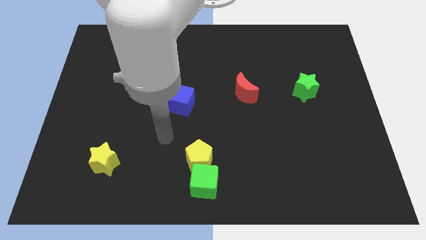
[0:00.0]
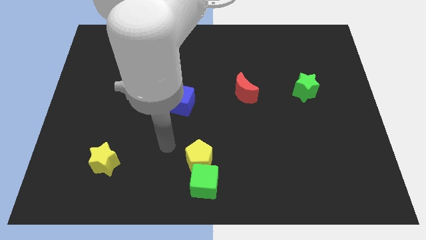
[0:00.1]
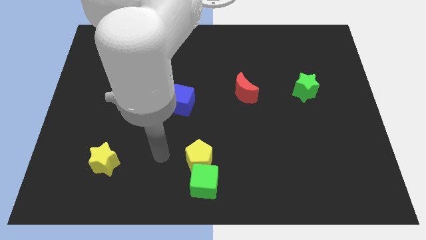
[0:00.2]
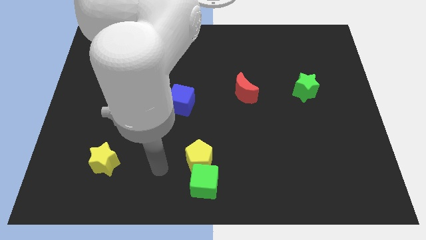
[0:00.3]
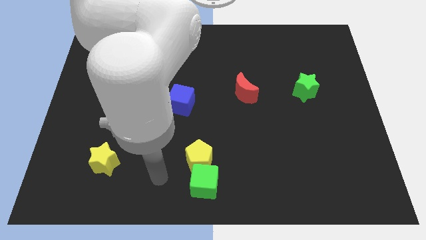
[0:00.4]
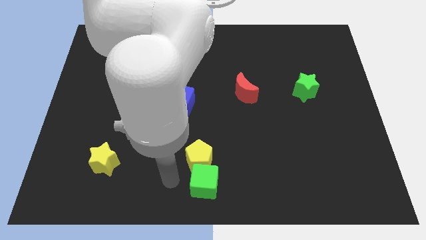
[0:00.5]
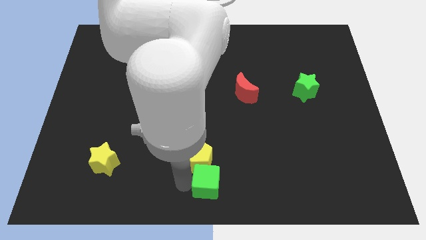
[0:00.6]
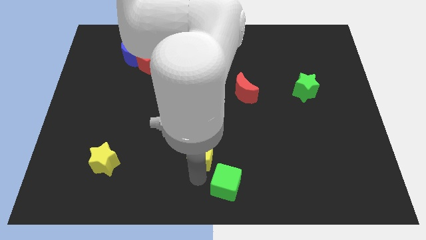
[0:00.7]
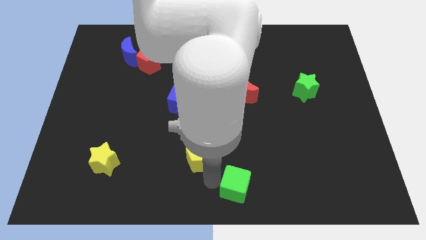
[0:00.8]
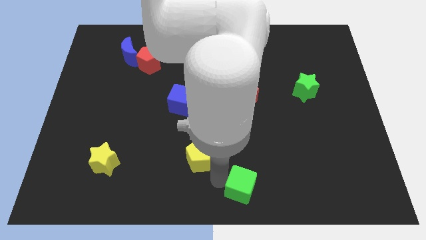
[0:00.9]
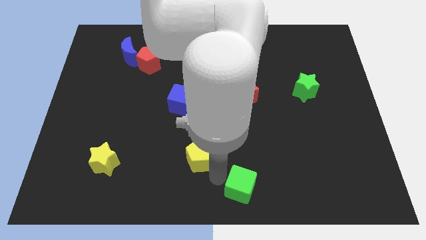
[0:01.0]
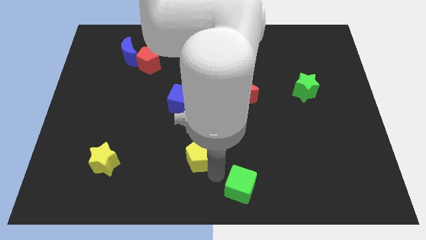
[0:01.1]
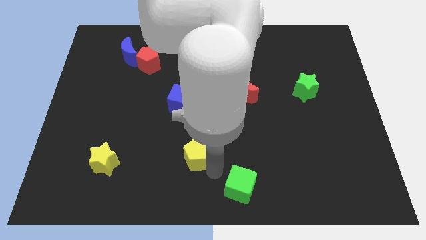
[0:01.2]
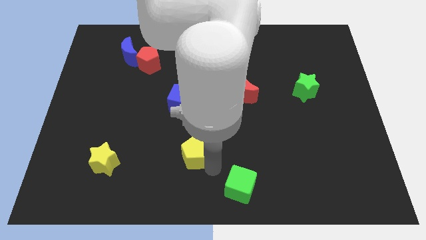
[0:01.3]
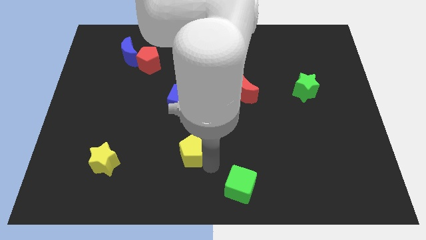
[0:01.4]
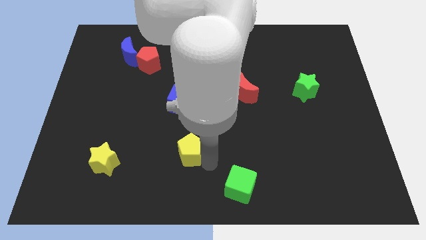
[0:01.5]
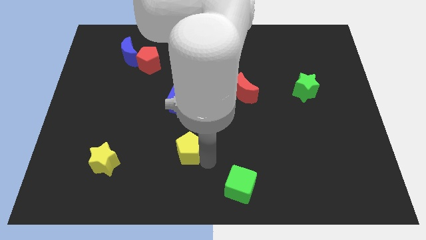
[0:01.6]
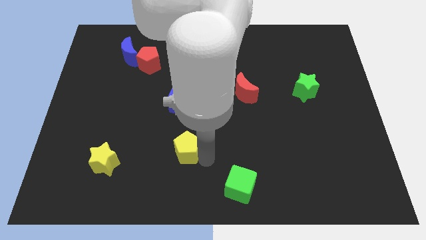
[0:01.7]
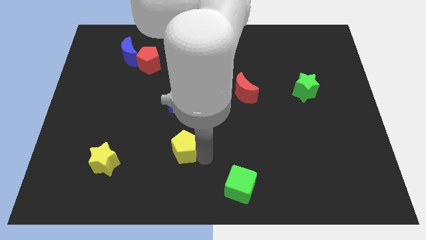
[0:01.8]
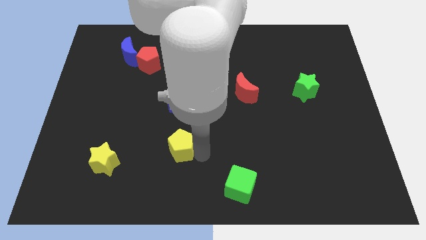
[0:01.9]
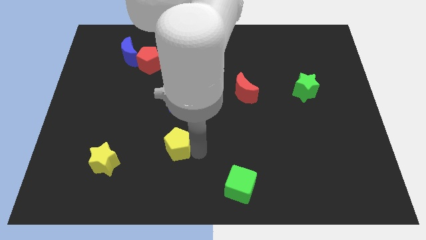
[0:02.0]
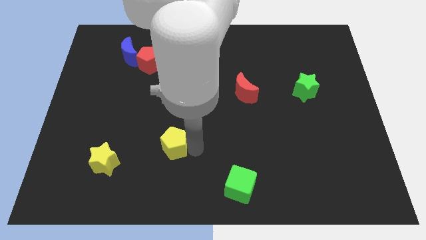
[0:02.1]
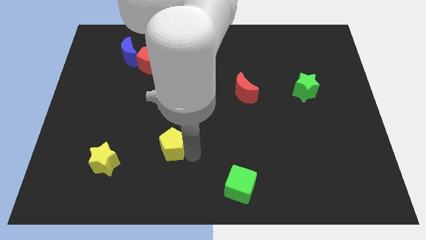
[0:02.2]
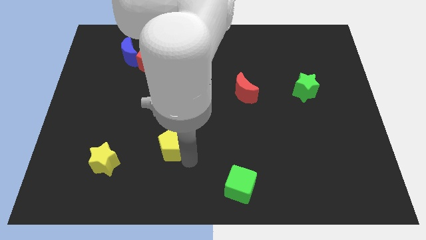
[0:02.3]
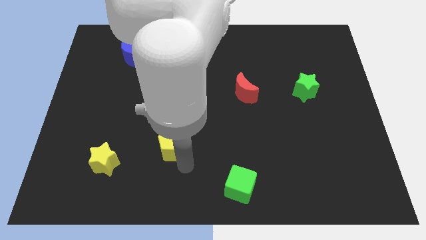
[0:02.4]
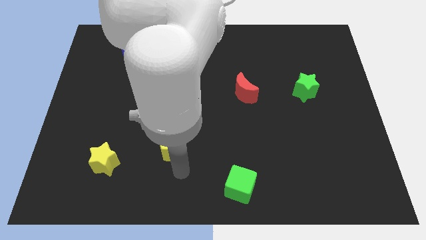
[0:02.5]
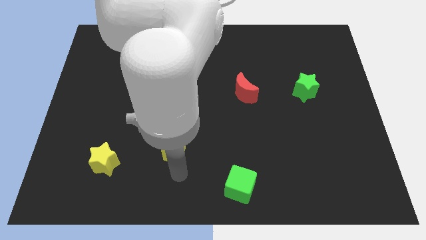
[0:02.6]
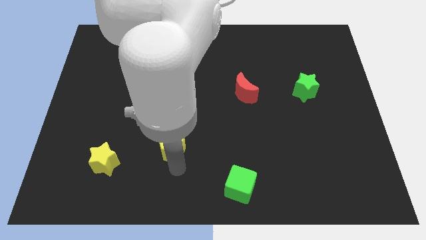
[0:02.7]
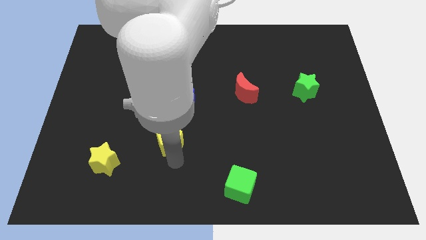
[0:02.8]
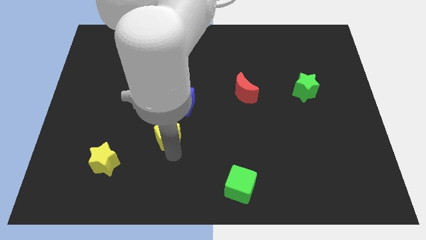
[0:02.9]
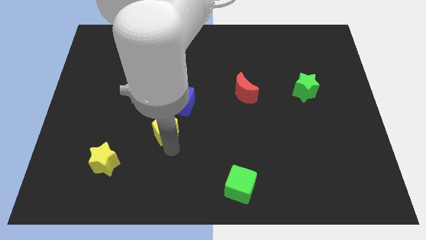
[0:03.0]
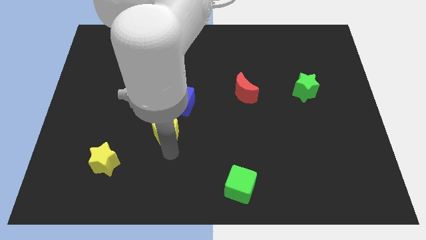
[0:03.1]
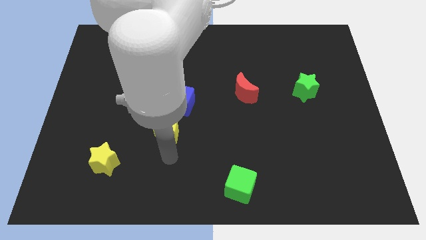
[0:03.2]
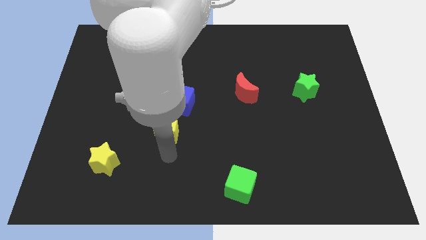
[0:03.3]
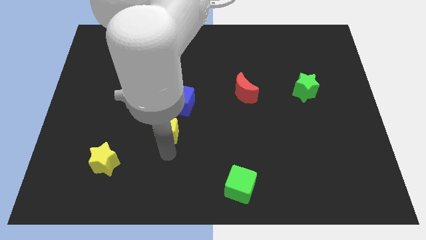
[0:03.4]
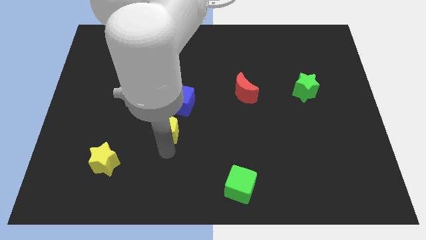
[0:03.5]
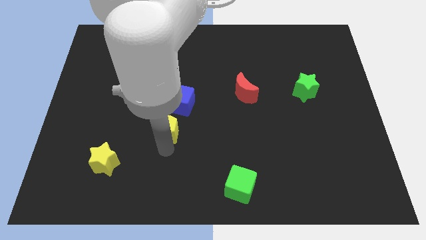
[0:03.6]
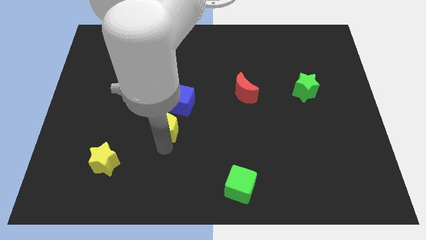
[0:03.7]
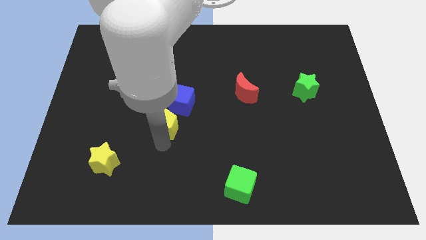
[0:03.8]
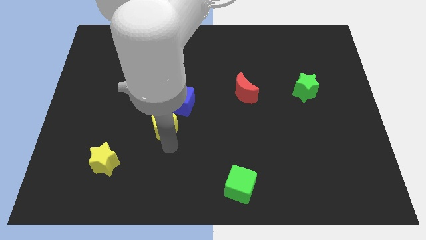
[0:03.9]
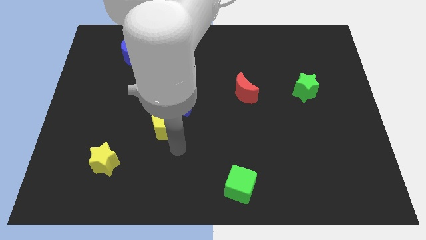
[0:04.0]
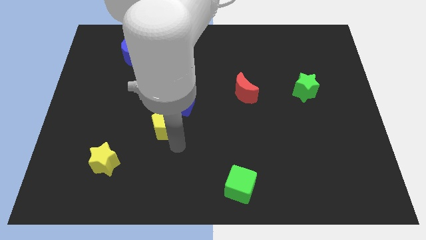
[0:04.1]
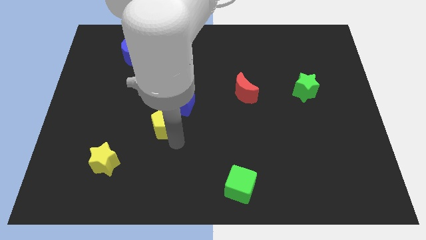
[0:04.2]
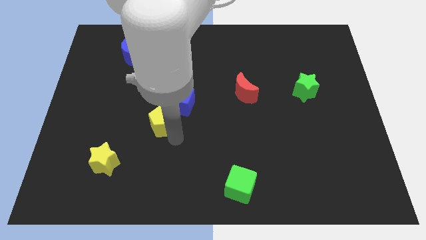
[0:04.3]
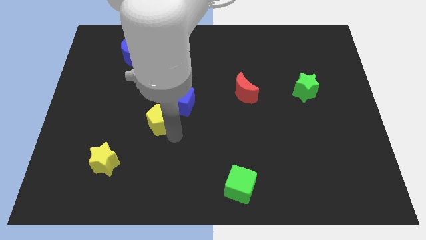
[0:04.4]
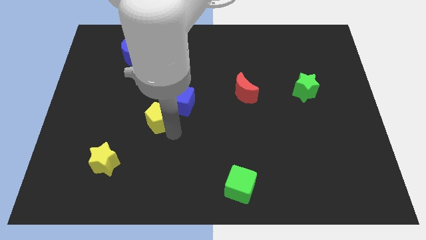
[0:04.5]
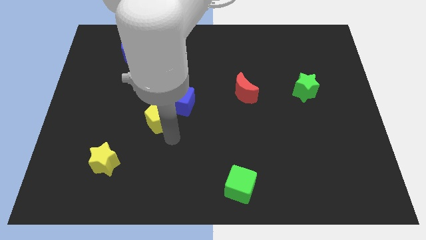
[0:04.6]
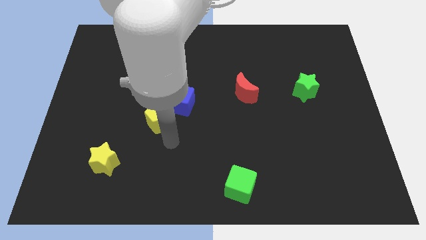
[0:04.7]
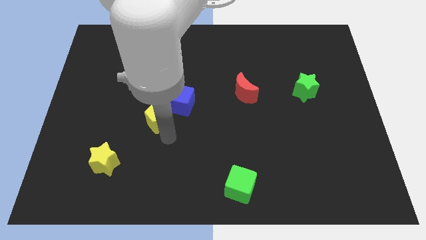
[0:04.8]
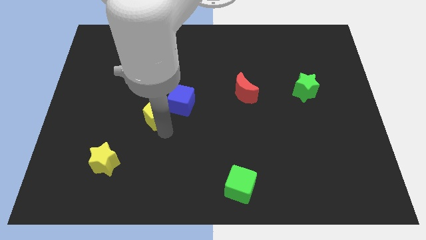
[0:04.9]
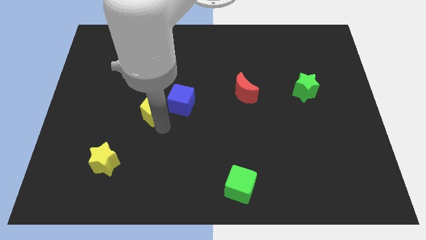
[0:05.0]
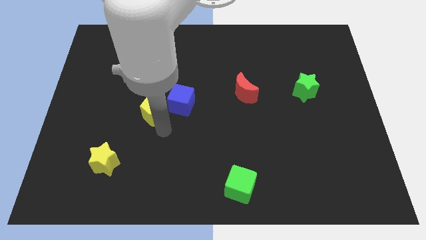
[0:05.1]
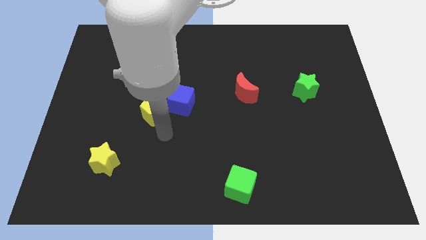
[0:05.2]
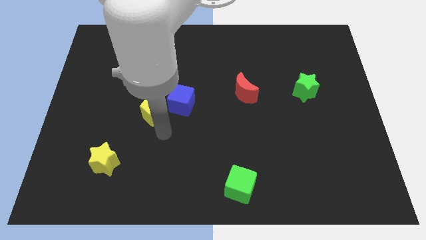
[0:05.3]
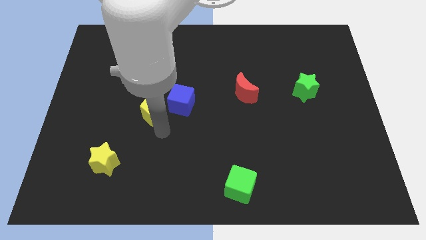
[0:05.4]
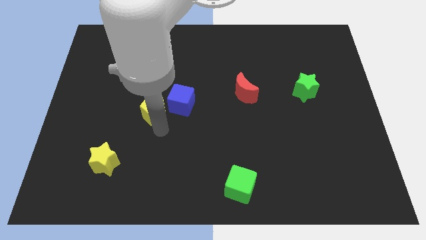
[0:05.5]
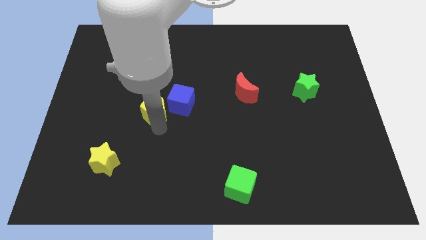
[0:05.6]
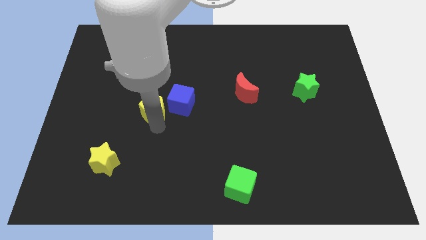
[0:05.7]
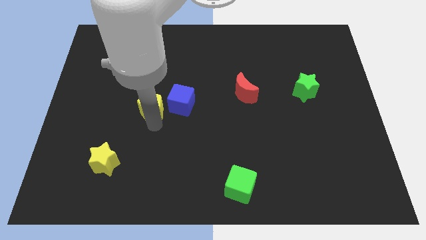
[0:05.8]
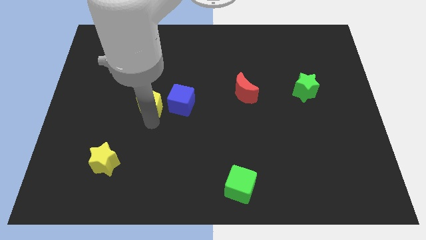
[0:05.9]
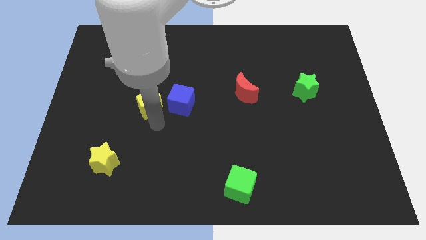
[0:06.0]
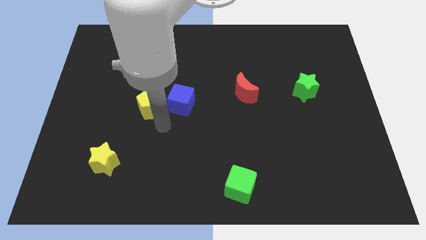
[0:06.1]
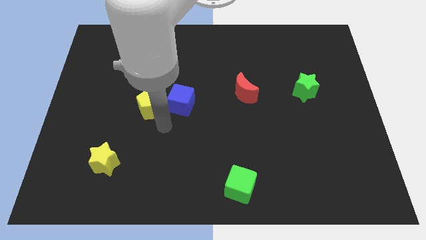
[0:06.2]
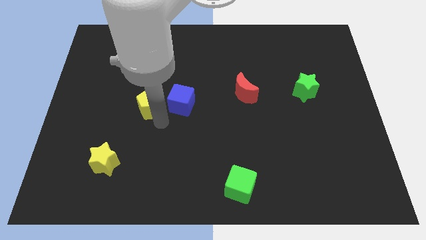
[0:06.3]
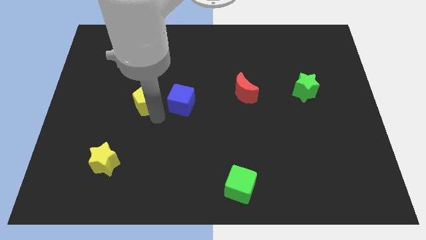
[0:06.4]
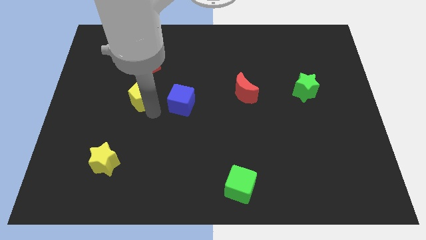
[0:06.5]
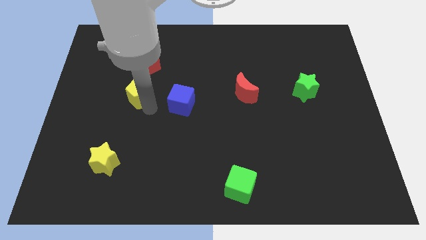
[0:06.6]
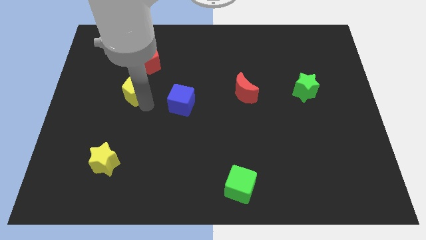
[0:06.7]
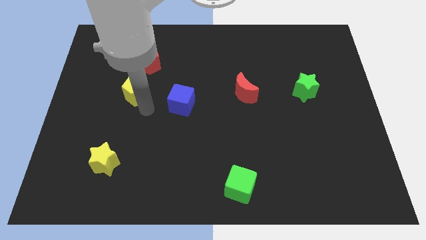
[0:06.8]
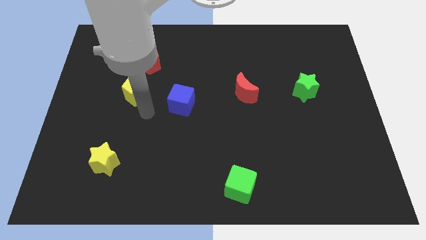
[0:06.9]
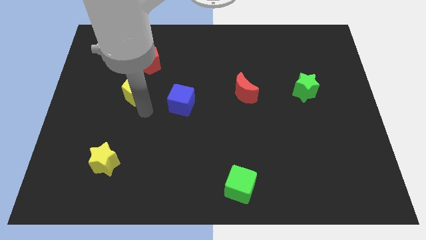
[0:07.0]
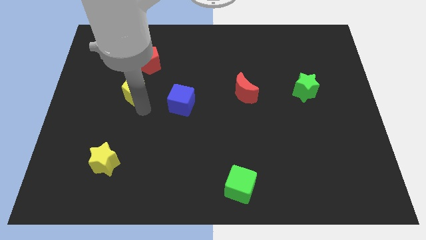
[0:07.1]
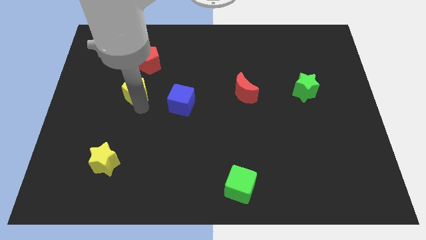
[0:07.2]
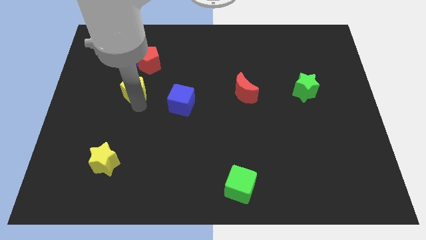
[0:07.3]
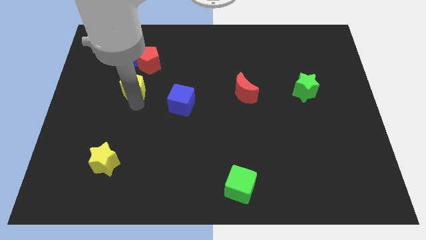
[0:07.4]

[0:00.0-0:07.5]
slide the yellow pentagon diagonally down and to the left of the red pentagon
